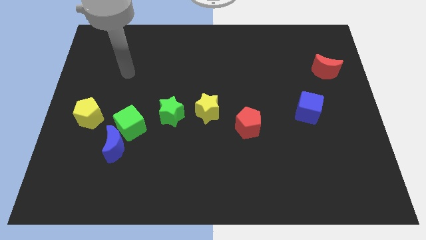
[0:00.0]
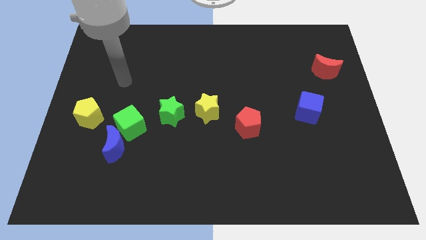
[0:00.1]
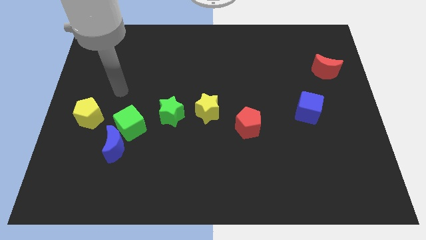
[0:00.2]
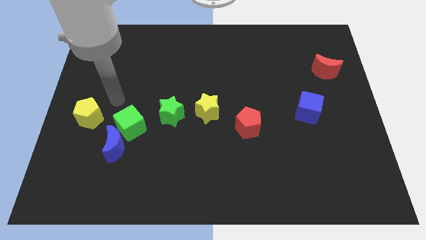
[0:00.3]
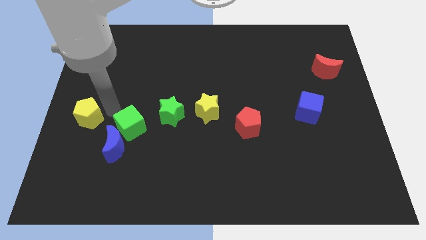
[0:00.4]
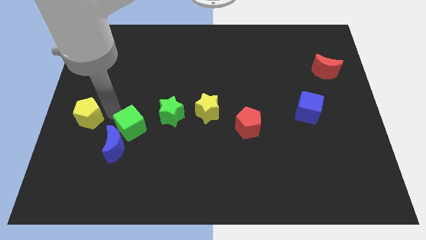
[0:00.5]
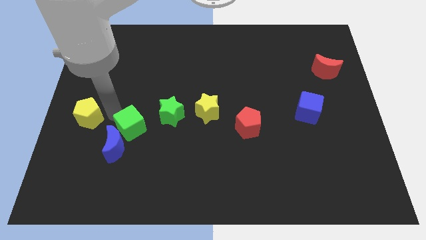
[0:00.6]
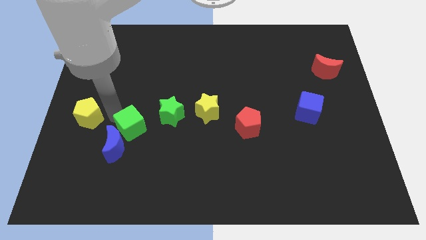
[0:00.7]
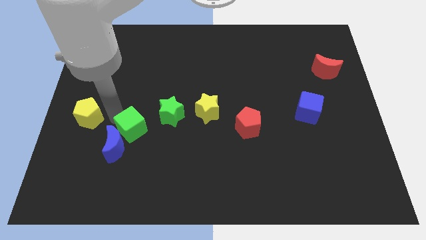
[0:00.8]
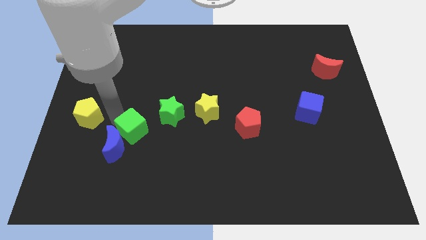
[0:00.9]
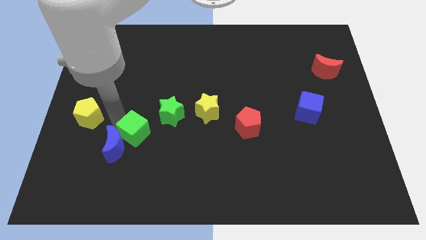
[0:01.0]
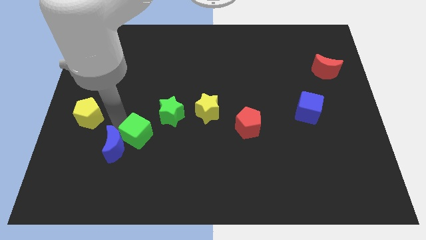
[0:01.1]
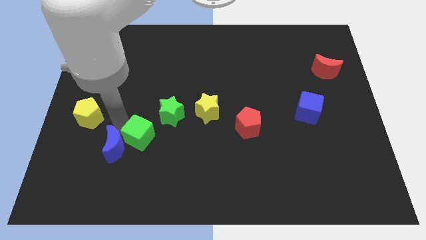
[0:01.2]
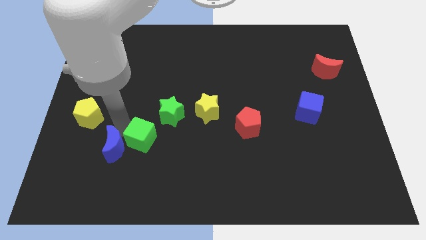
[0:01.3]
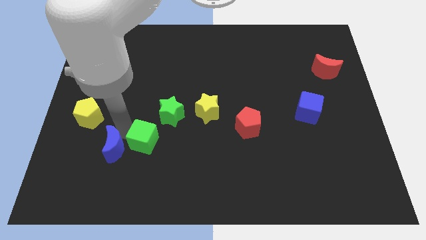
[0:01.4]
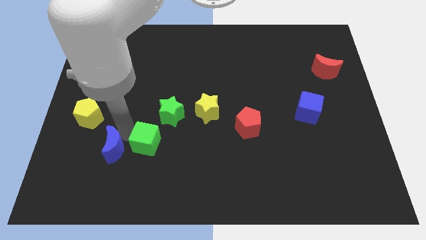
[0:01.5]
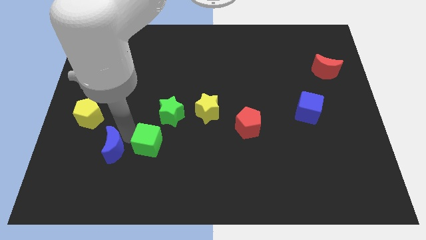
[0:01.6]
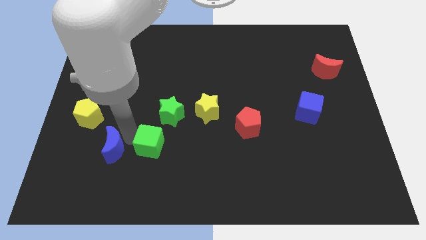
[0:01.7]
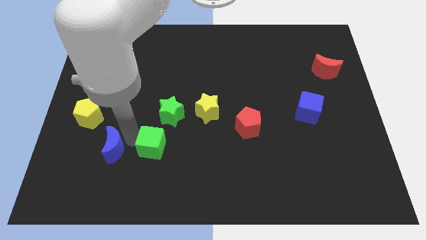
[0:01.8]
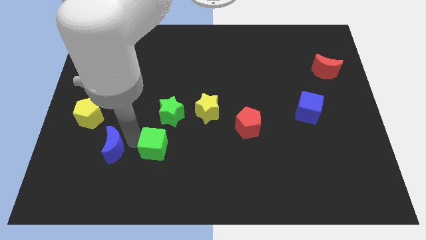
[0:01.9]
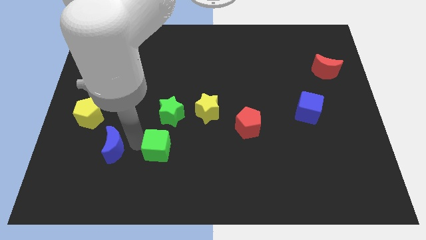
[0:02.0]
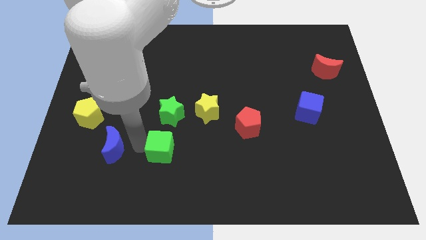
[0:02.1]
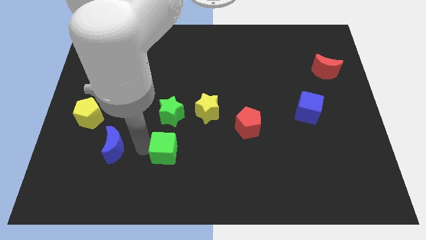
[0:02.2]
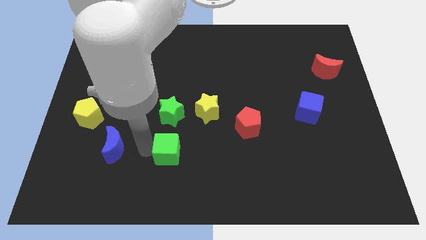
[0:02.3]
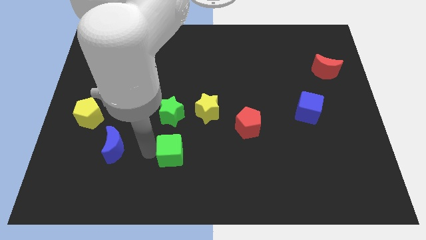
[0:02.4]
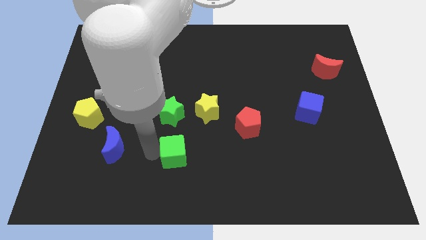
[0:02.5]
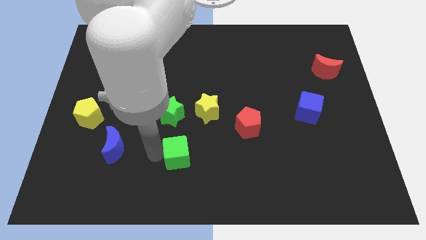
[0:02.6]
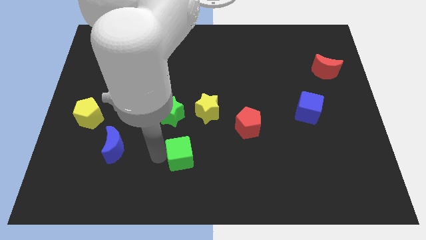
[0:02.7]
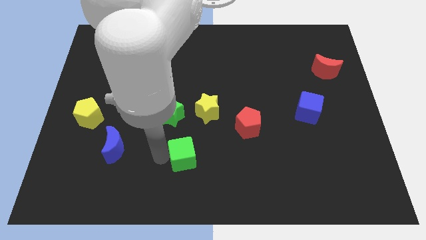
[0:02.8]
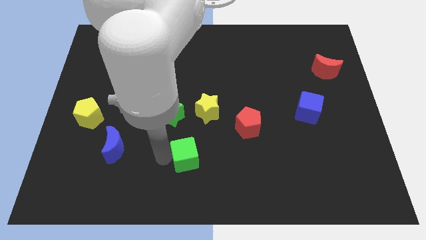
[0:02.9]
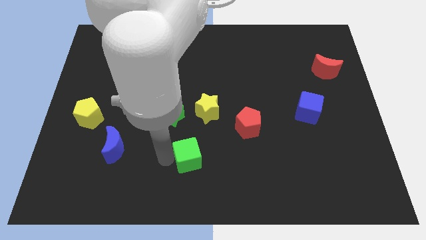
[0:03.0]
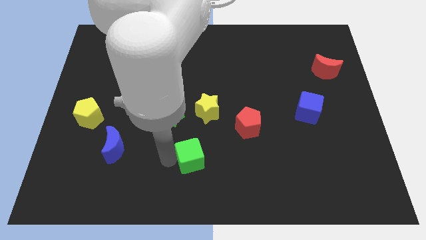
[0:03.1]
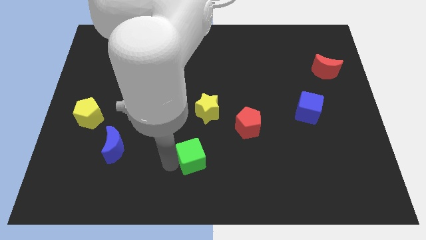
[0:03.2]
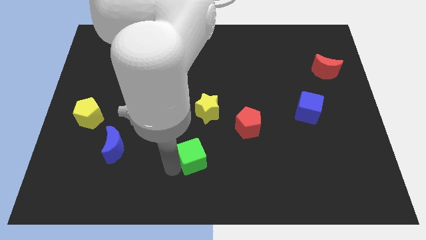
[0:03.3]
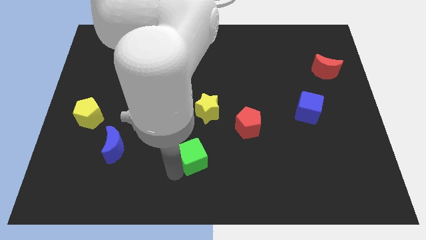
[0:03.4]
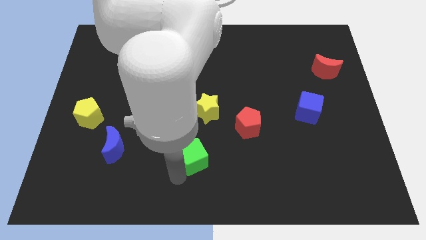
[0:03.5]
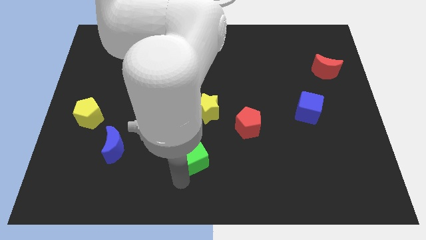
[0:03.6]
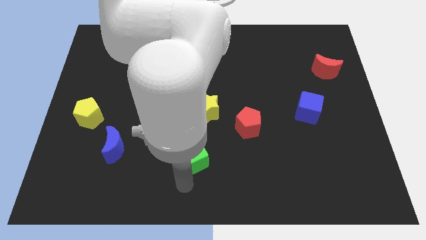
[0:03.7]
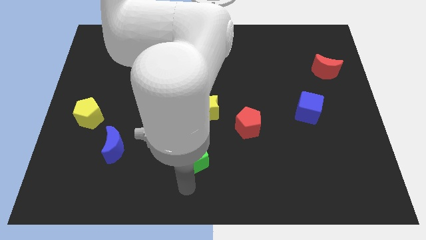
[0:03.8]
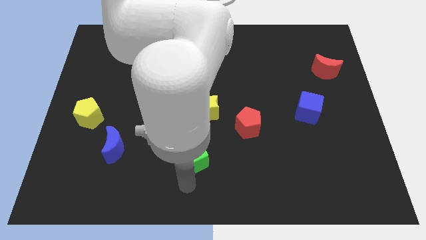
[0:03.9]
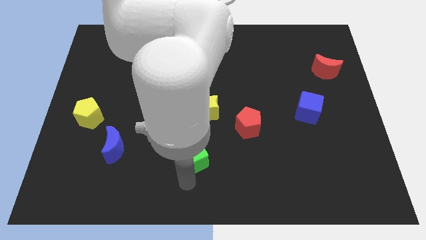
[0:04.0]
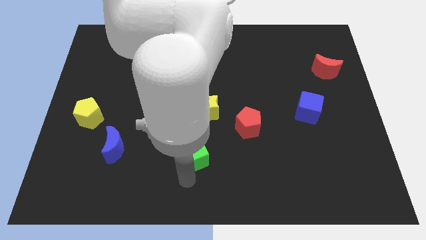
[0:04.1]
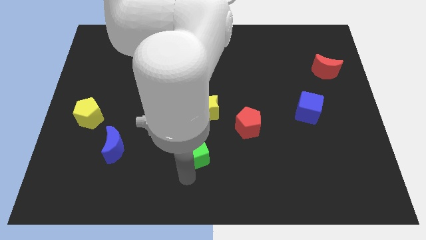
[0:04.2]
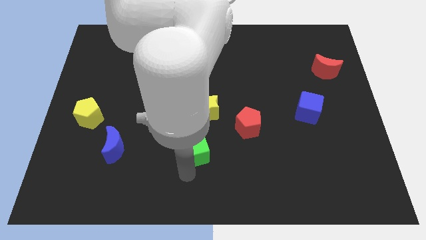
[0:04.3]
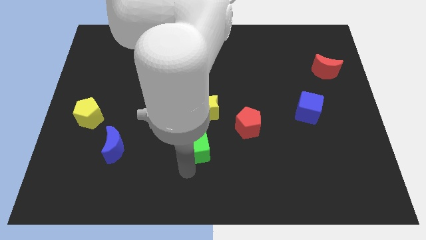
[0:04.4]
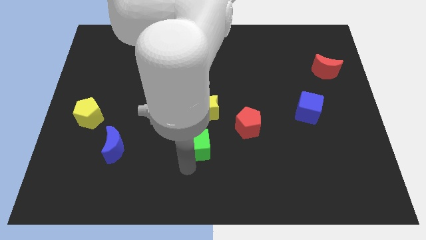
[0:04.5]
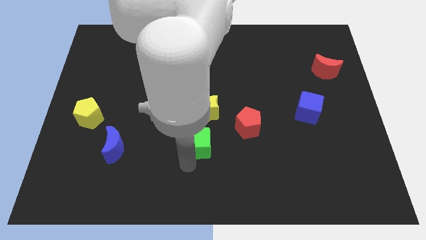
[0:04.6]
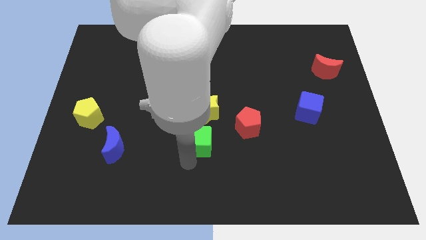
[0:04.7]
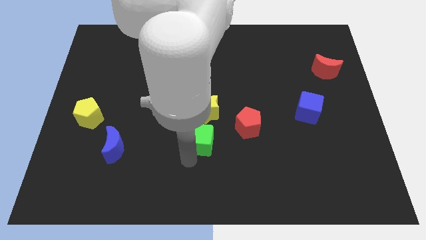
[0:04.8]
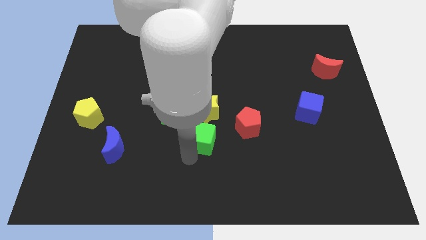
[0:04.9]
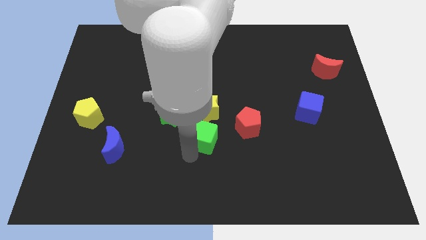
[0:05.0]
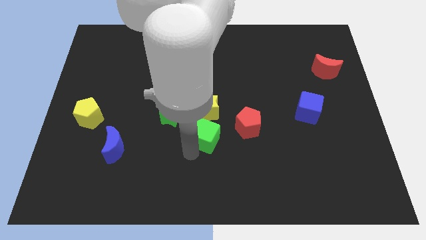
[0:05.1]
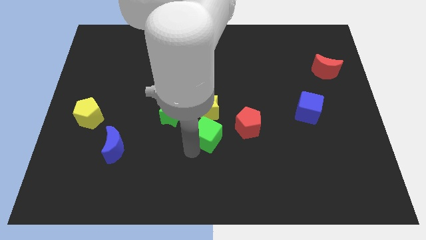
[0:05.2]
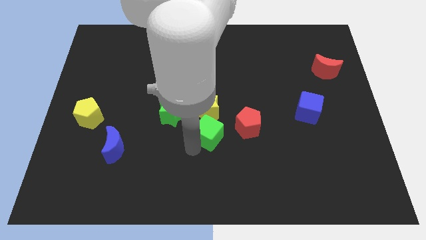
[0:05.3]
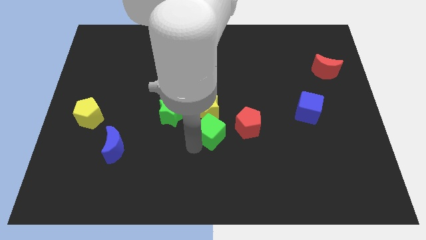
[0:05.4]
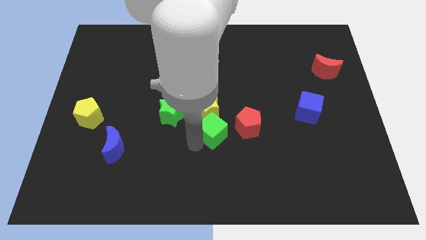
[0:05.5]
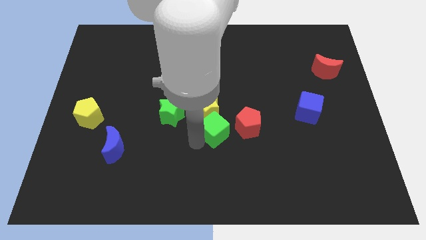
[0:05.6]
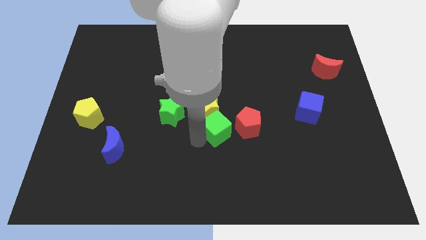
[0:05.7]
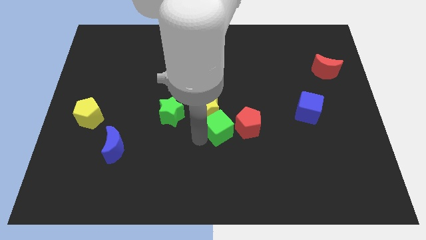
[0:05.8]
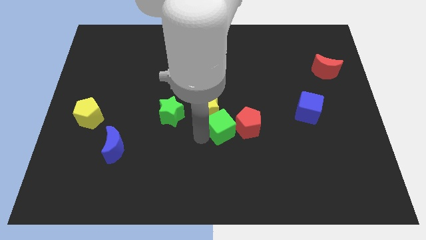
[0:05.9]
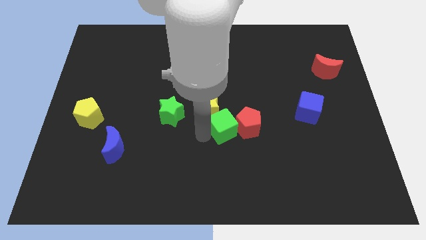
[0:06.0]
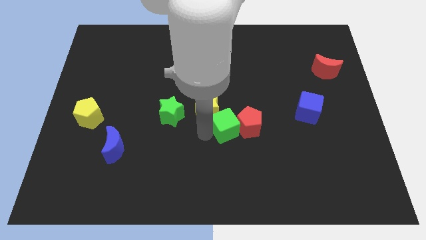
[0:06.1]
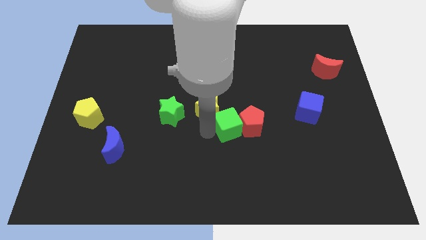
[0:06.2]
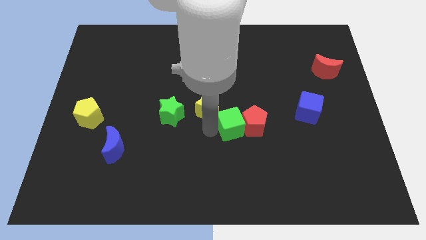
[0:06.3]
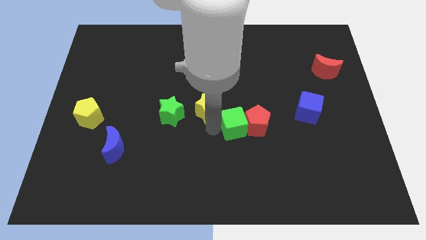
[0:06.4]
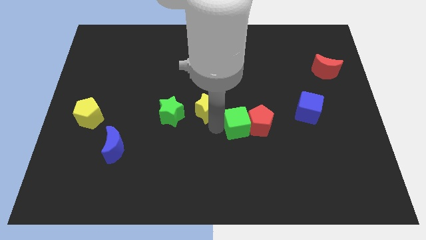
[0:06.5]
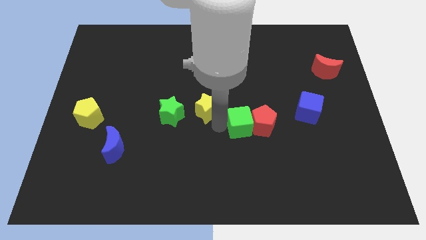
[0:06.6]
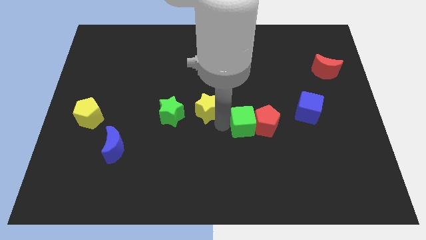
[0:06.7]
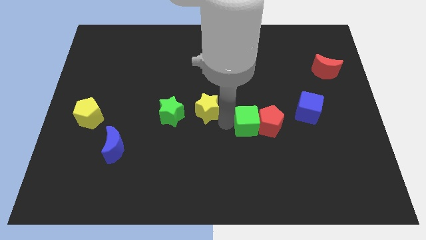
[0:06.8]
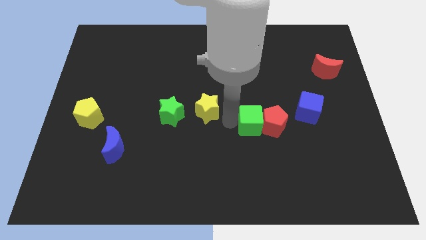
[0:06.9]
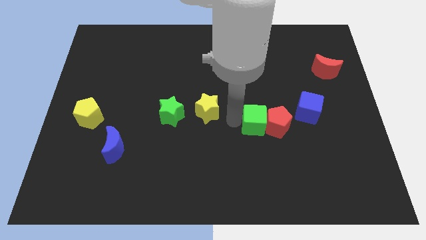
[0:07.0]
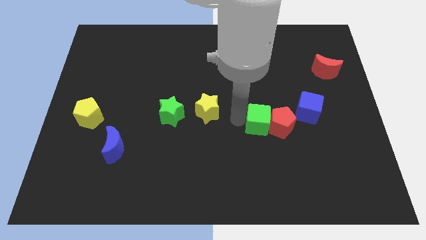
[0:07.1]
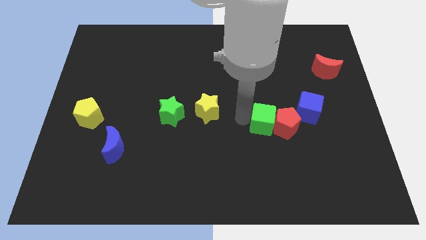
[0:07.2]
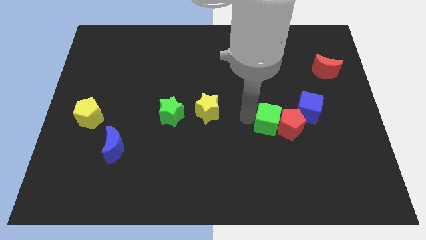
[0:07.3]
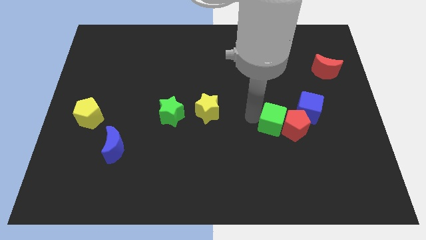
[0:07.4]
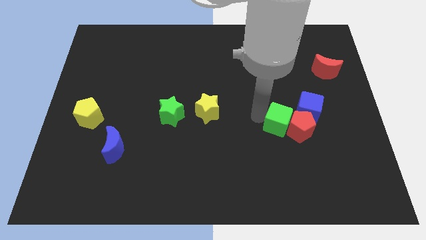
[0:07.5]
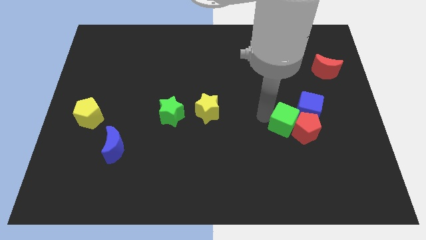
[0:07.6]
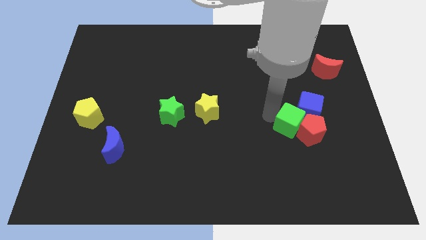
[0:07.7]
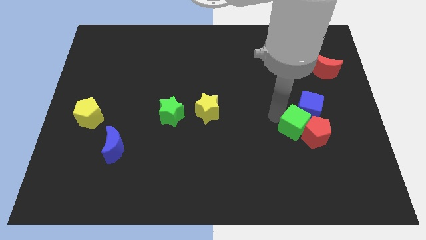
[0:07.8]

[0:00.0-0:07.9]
push the green cube to the bottom of the blue cube
